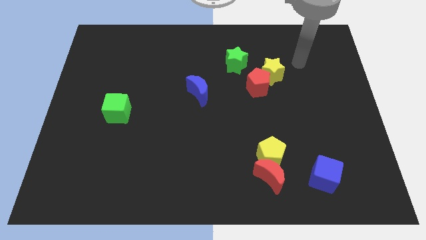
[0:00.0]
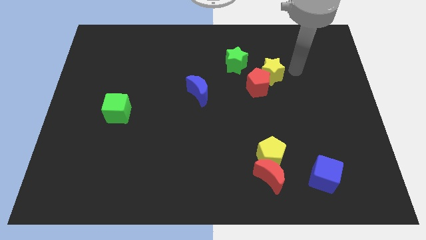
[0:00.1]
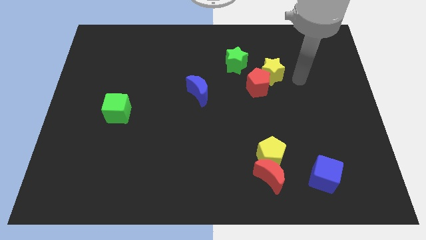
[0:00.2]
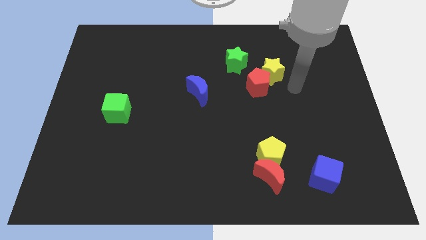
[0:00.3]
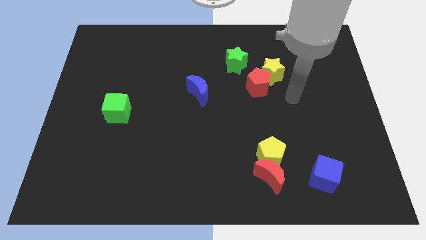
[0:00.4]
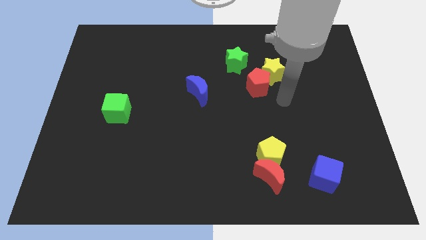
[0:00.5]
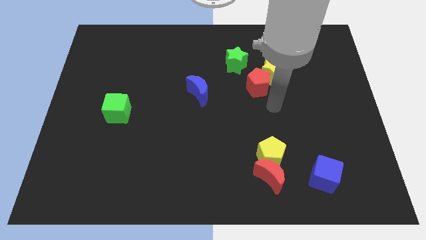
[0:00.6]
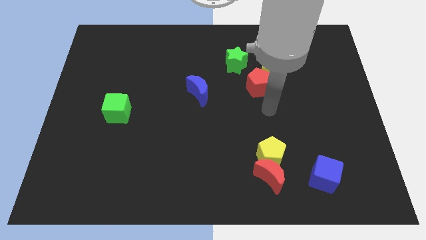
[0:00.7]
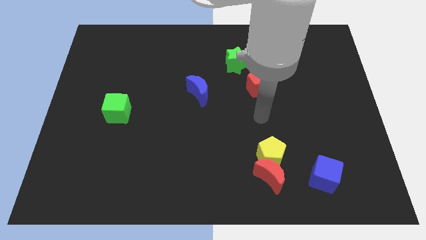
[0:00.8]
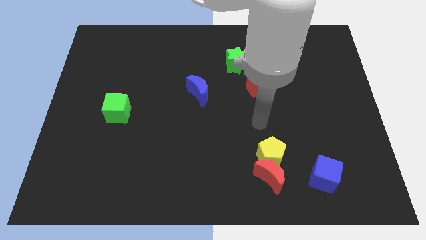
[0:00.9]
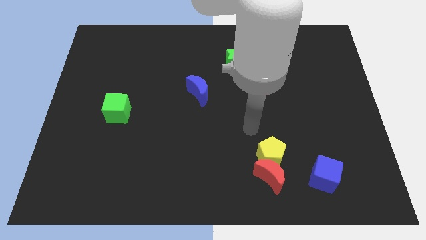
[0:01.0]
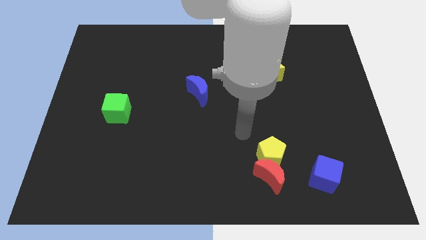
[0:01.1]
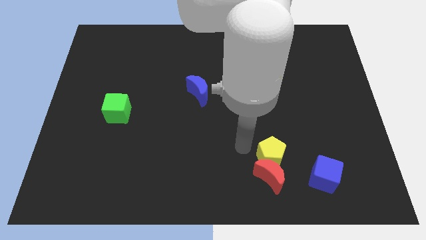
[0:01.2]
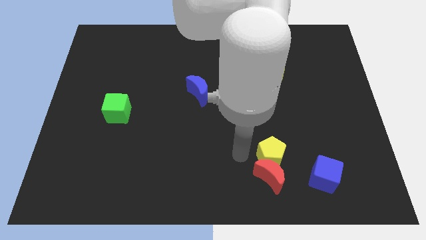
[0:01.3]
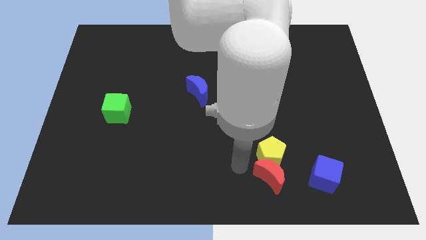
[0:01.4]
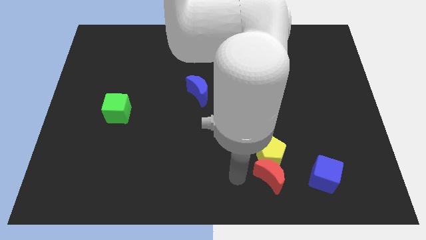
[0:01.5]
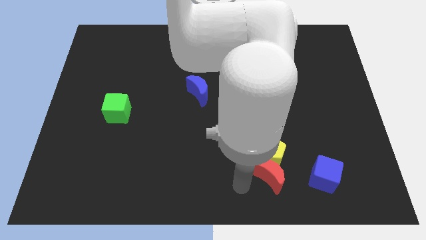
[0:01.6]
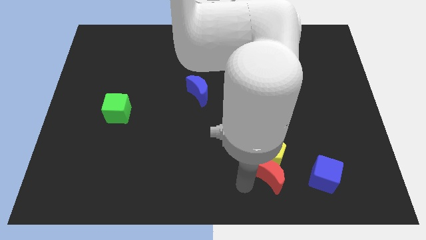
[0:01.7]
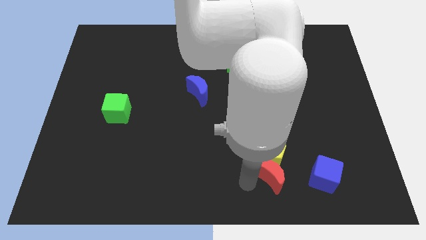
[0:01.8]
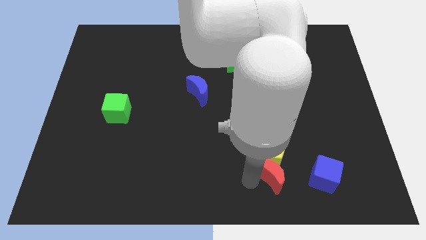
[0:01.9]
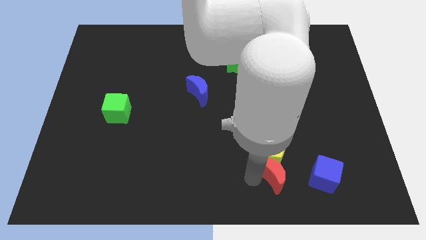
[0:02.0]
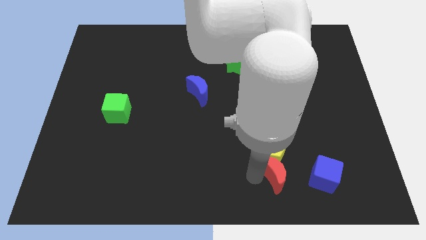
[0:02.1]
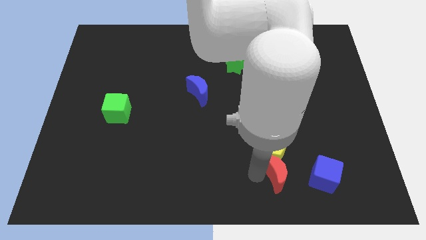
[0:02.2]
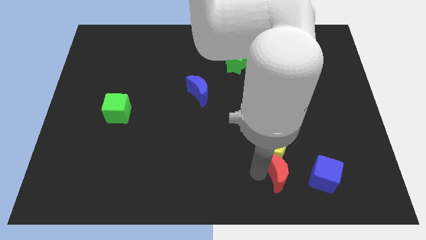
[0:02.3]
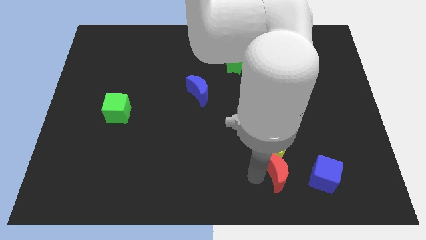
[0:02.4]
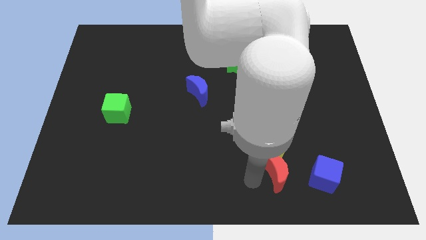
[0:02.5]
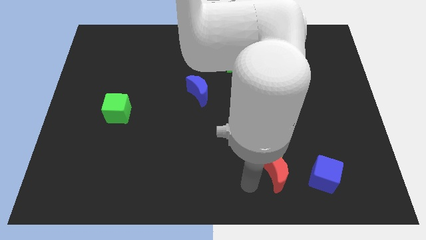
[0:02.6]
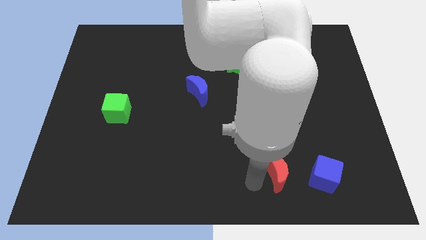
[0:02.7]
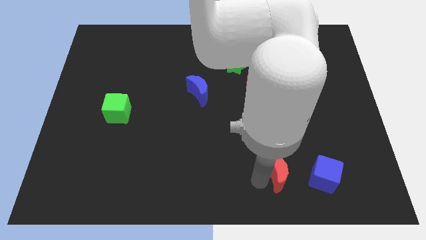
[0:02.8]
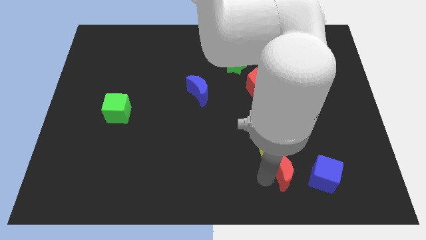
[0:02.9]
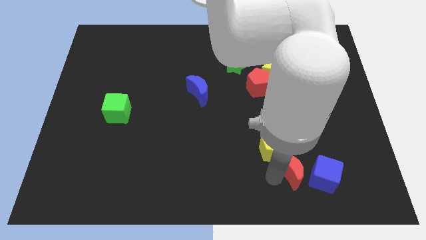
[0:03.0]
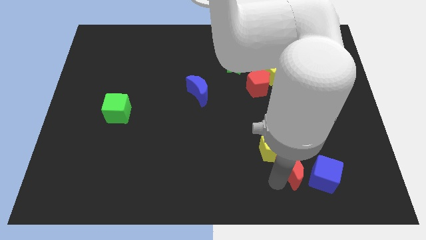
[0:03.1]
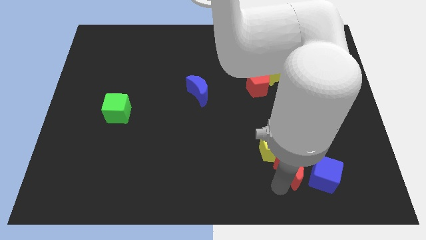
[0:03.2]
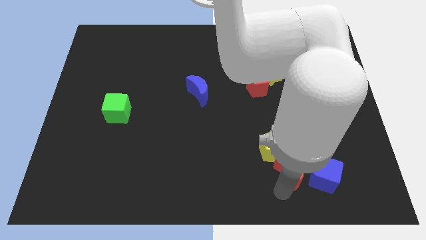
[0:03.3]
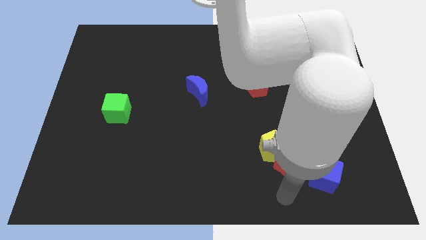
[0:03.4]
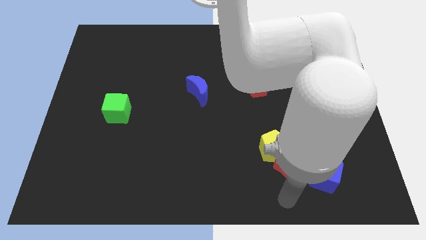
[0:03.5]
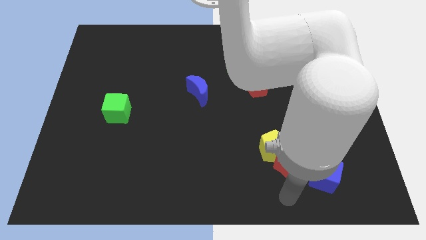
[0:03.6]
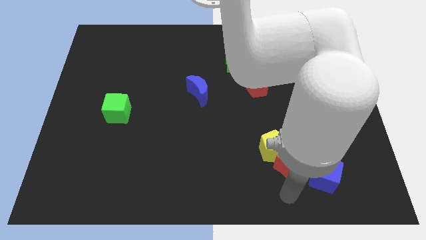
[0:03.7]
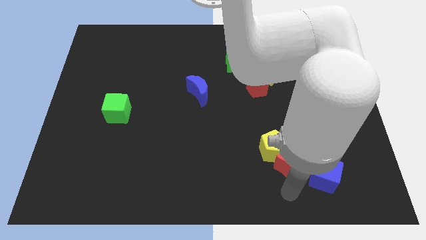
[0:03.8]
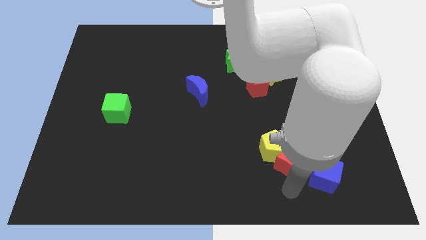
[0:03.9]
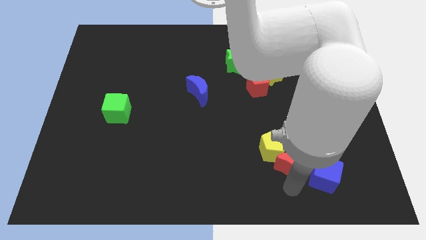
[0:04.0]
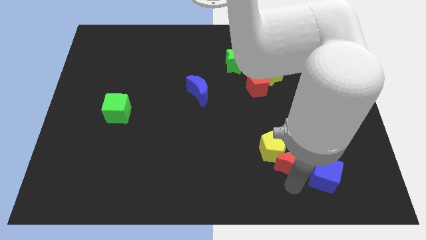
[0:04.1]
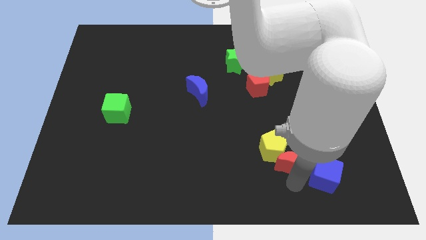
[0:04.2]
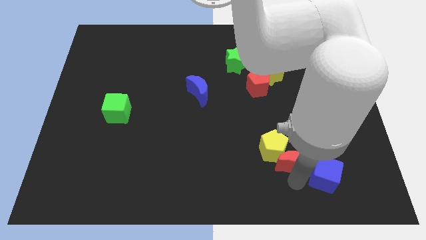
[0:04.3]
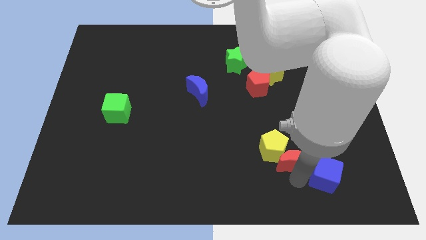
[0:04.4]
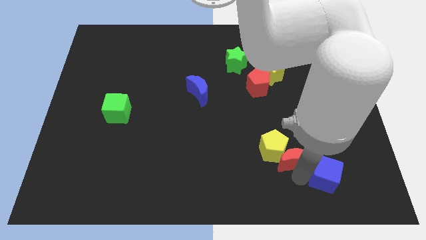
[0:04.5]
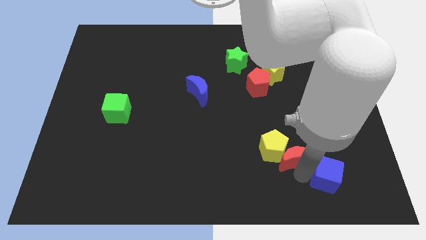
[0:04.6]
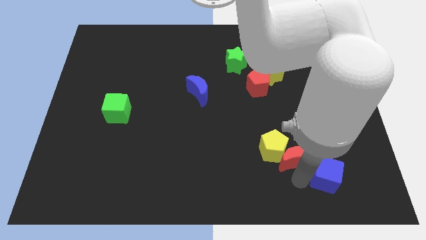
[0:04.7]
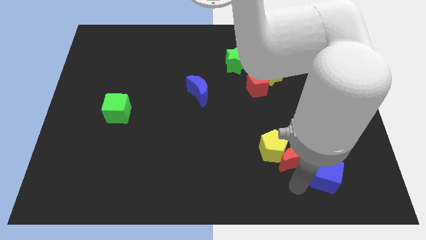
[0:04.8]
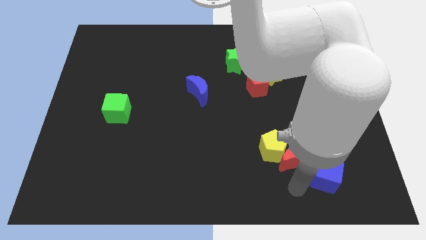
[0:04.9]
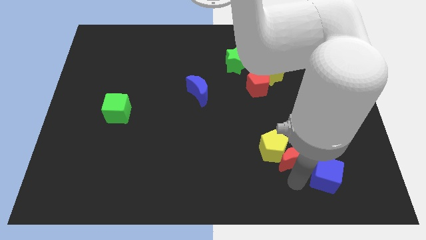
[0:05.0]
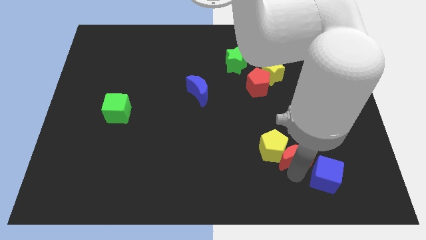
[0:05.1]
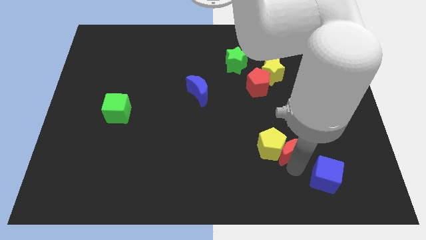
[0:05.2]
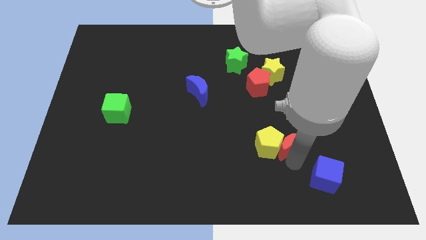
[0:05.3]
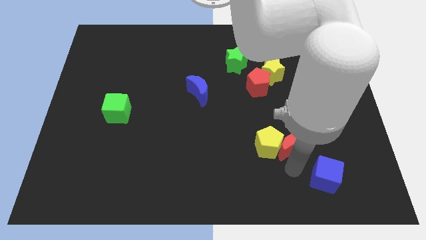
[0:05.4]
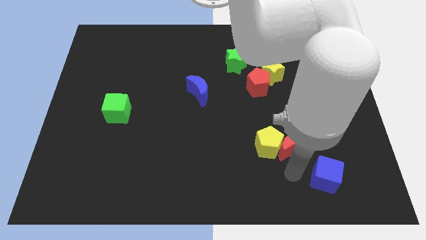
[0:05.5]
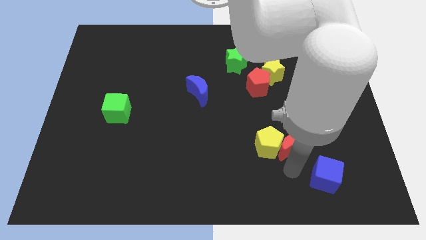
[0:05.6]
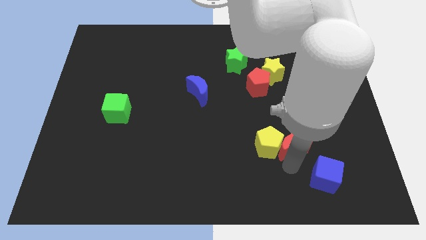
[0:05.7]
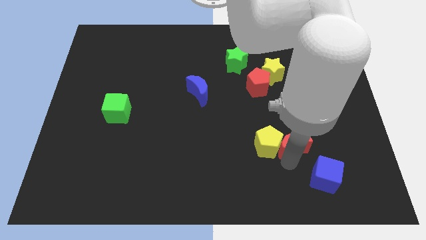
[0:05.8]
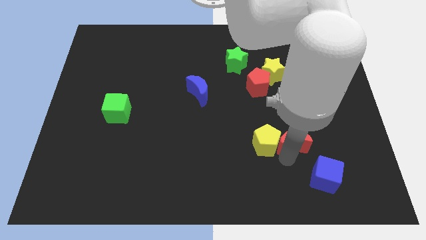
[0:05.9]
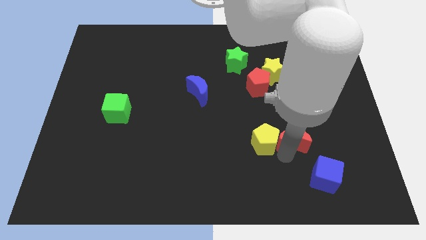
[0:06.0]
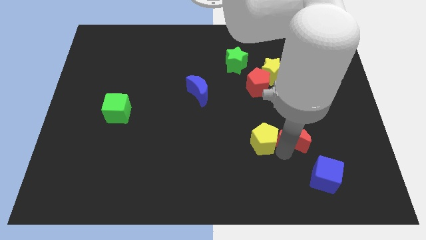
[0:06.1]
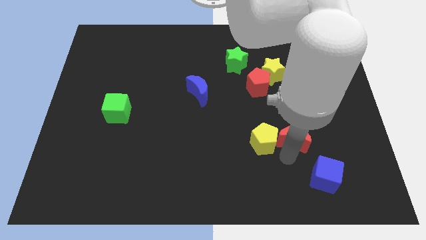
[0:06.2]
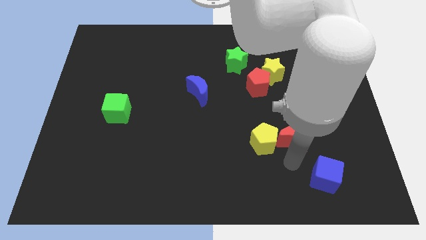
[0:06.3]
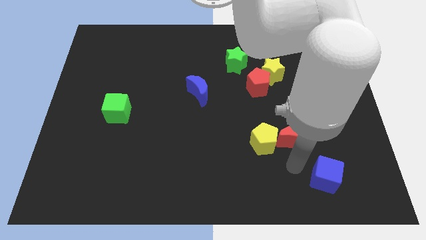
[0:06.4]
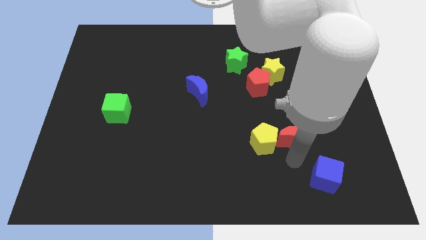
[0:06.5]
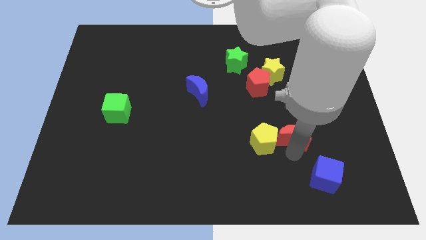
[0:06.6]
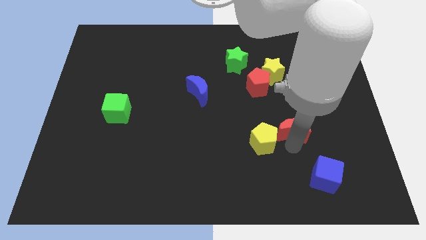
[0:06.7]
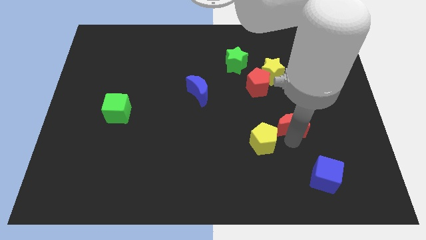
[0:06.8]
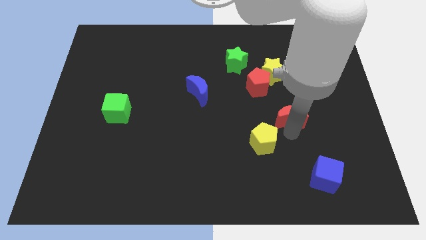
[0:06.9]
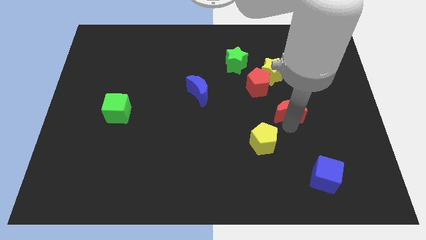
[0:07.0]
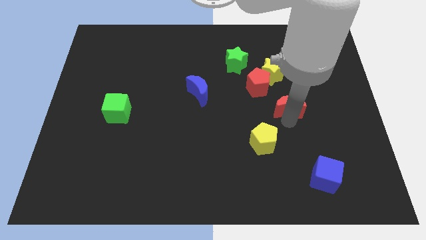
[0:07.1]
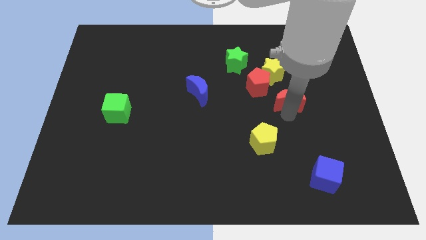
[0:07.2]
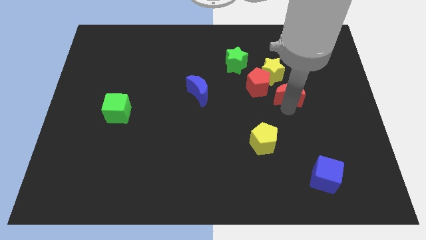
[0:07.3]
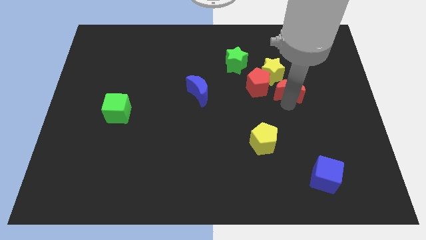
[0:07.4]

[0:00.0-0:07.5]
move the red moon up
